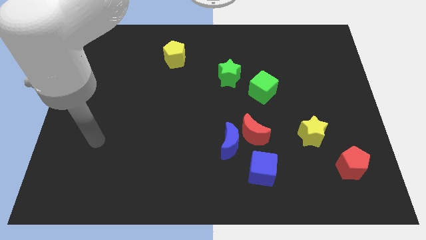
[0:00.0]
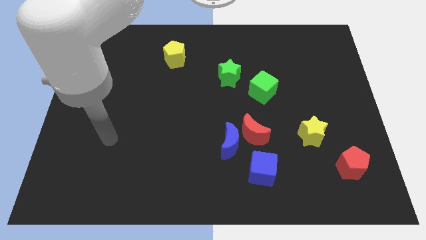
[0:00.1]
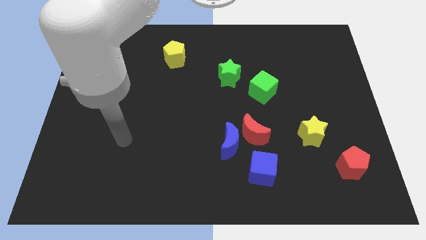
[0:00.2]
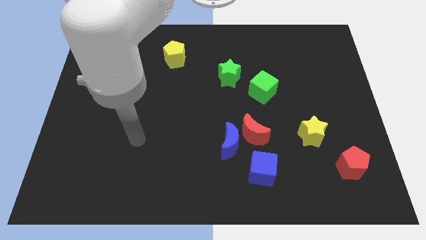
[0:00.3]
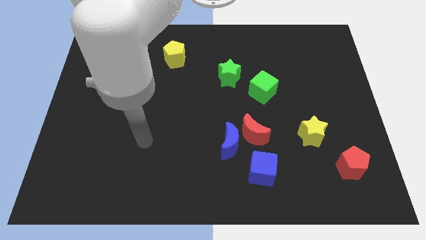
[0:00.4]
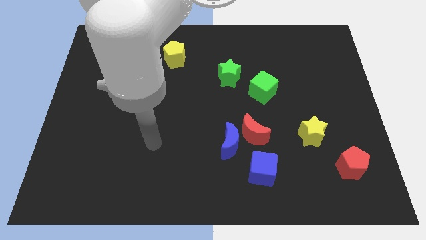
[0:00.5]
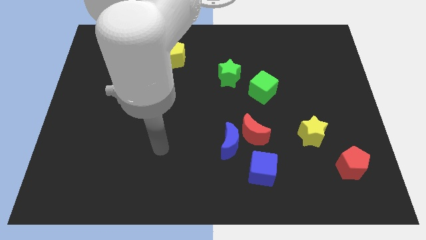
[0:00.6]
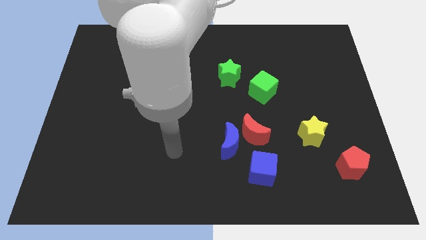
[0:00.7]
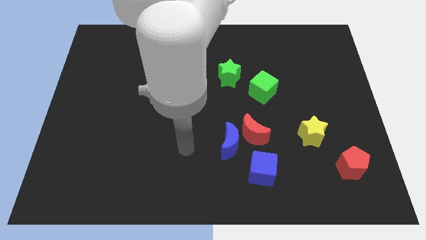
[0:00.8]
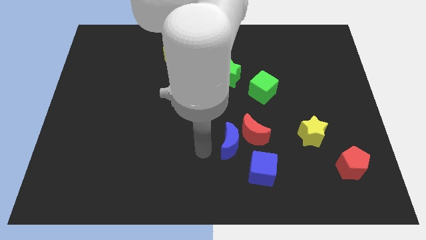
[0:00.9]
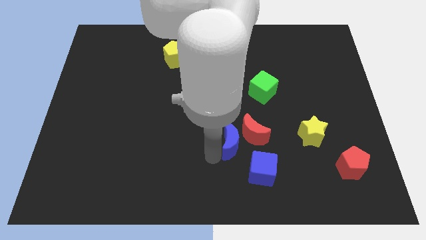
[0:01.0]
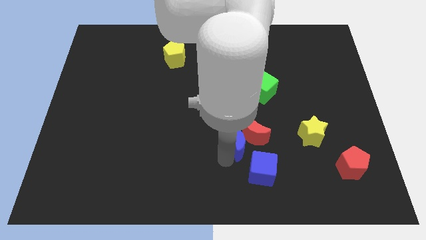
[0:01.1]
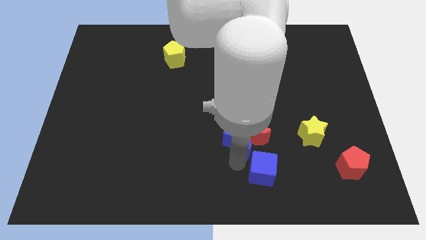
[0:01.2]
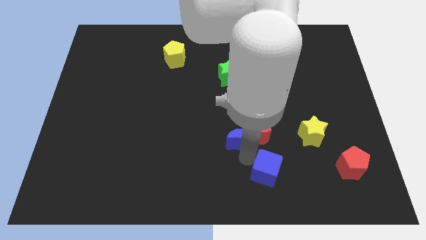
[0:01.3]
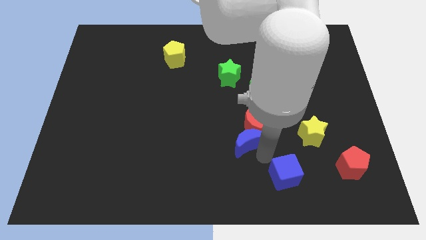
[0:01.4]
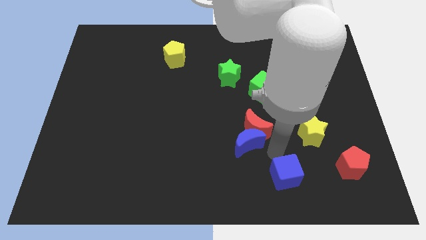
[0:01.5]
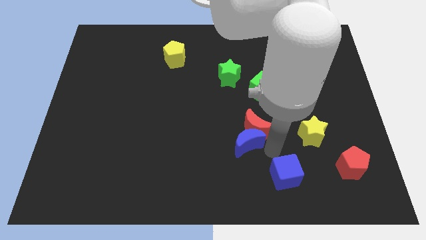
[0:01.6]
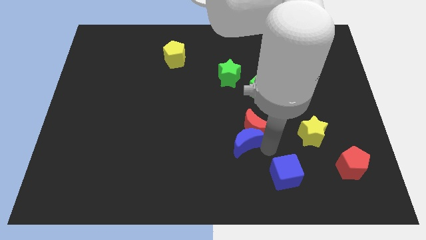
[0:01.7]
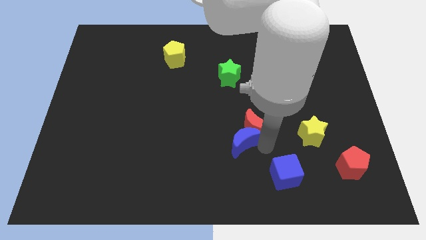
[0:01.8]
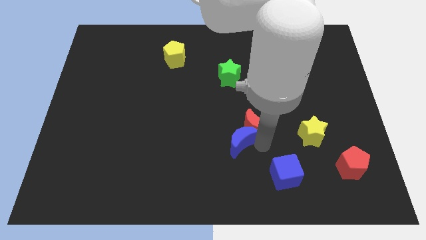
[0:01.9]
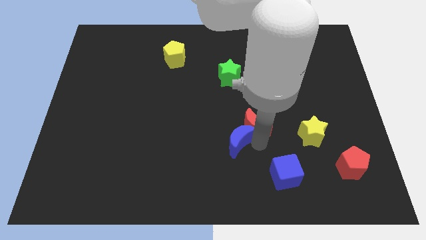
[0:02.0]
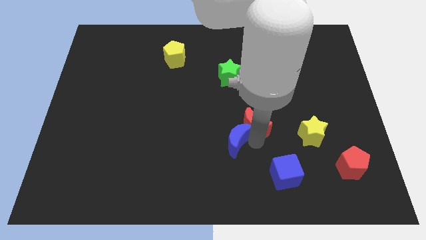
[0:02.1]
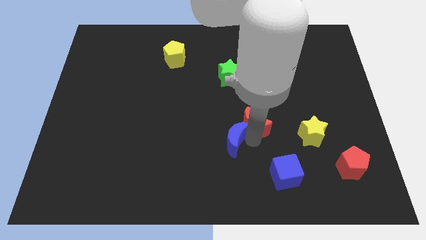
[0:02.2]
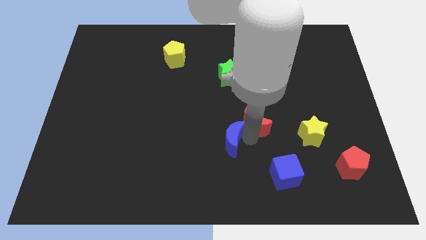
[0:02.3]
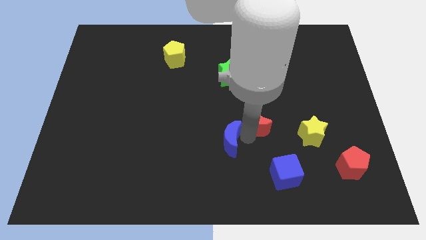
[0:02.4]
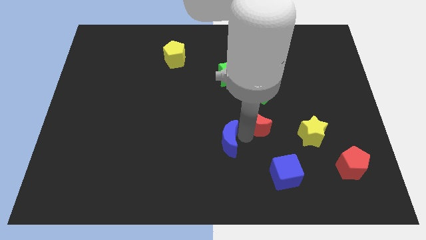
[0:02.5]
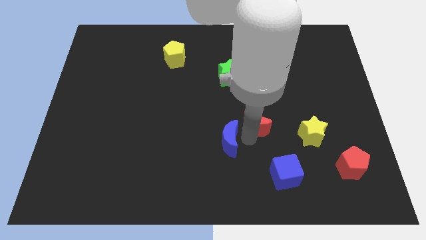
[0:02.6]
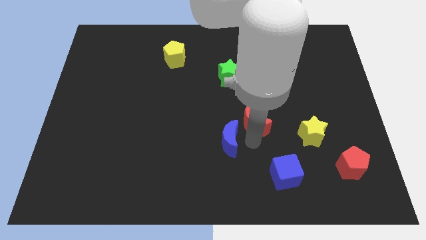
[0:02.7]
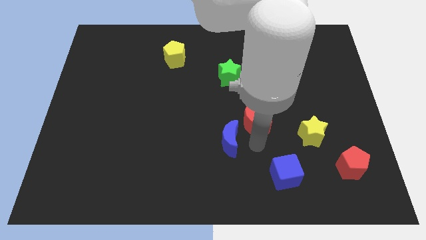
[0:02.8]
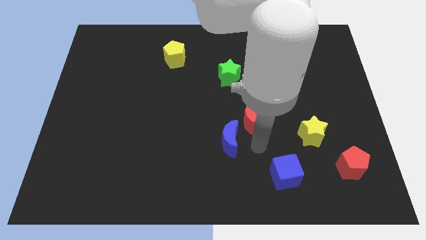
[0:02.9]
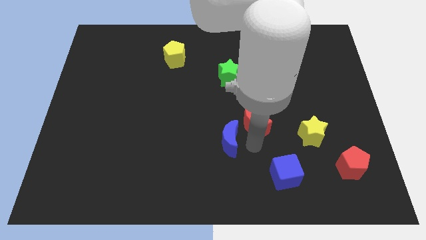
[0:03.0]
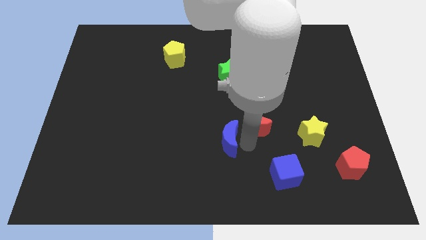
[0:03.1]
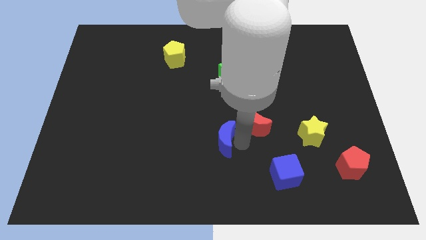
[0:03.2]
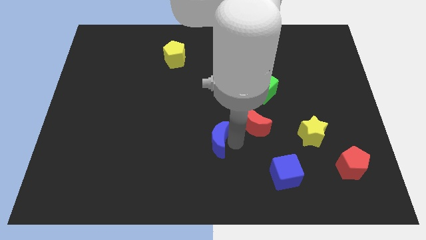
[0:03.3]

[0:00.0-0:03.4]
separate the blue moon from the red moon and blue cube

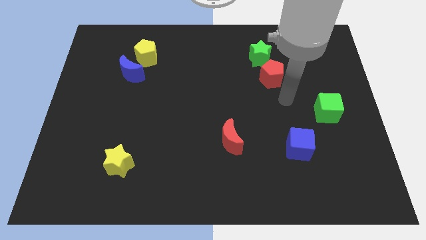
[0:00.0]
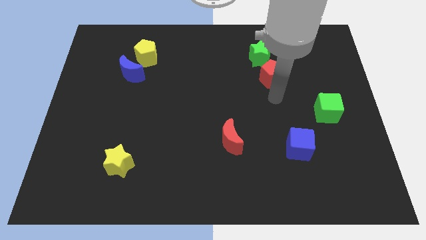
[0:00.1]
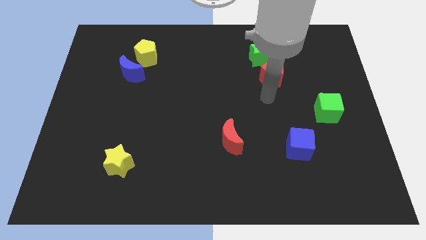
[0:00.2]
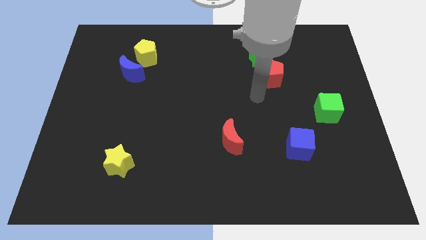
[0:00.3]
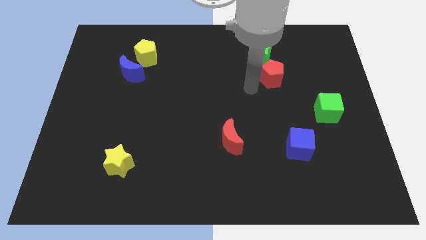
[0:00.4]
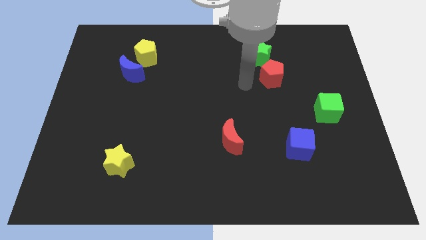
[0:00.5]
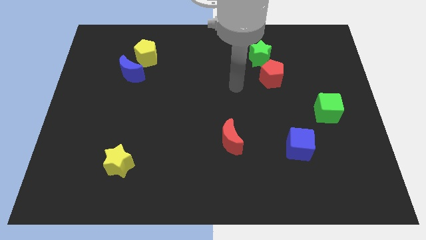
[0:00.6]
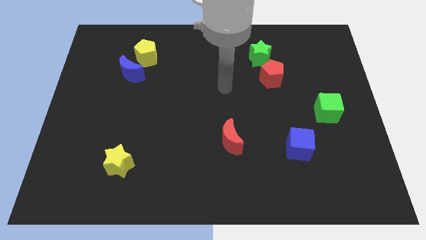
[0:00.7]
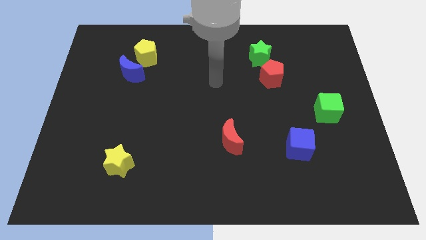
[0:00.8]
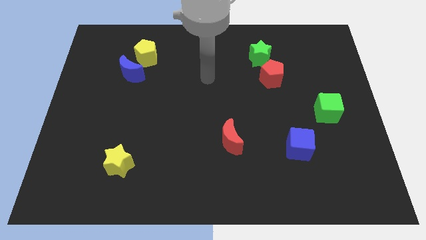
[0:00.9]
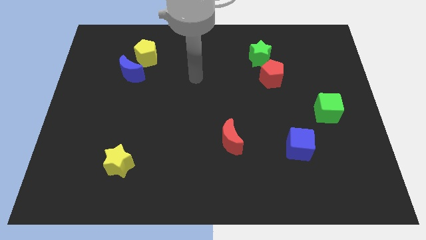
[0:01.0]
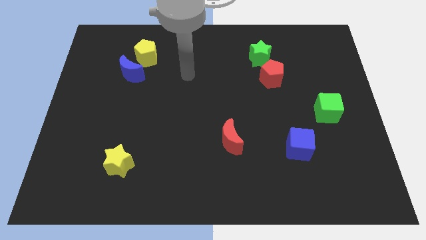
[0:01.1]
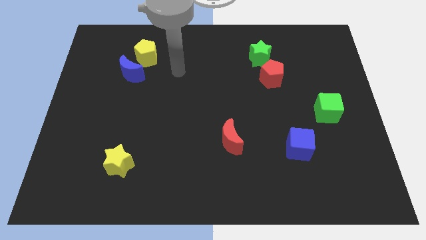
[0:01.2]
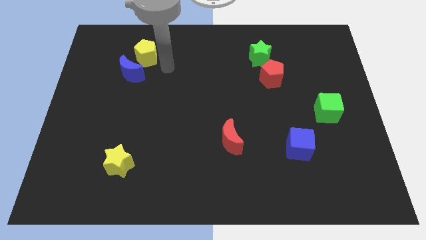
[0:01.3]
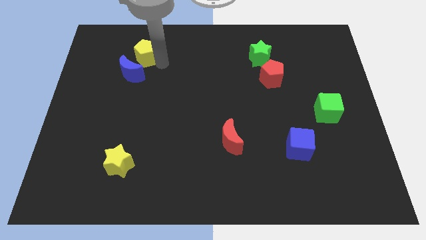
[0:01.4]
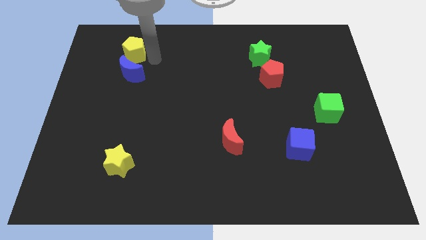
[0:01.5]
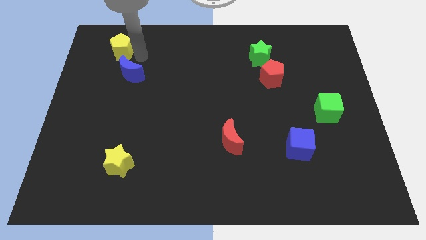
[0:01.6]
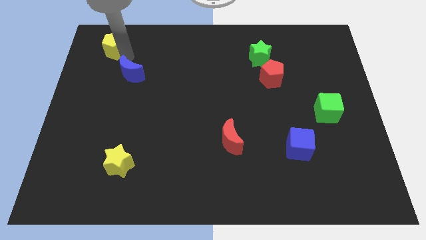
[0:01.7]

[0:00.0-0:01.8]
move the blue moon away from the yellow pentagon

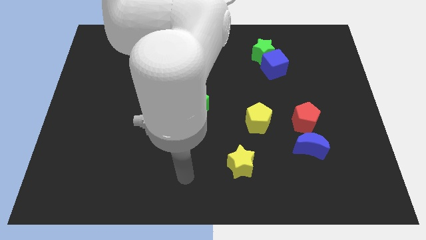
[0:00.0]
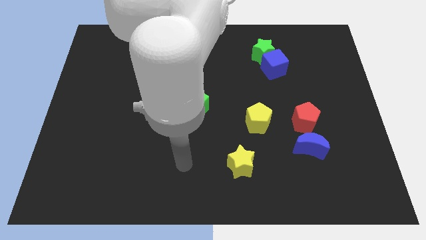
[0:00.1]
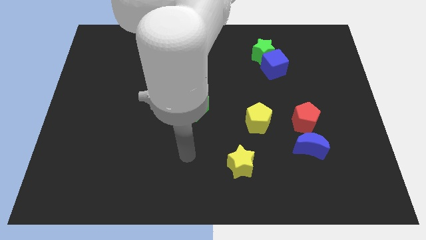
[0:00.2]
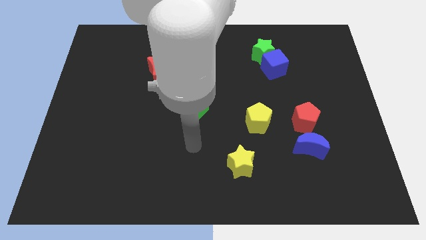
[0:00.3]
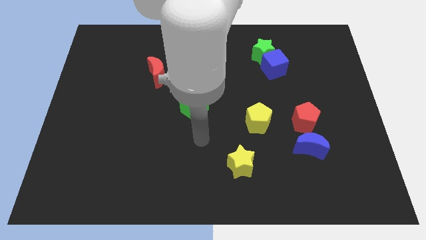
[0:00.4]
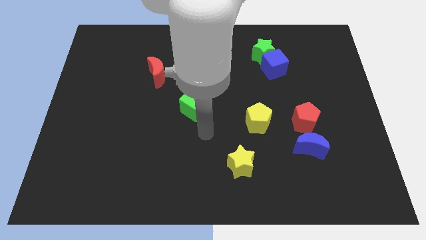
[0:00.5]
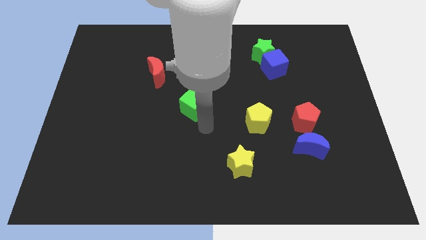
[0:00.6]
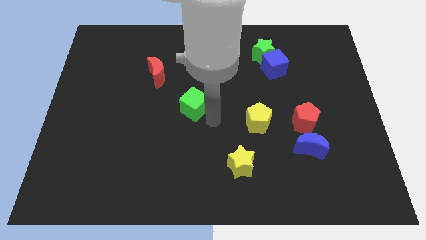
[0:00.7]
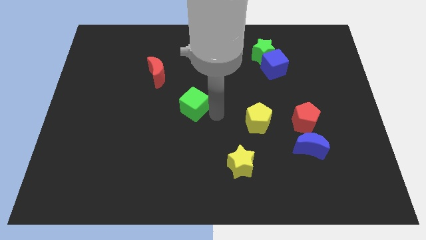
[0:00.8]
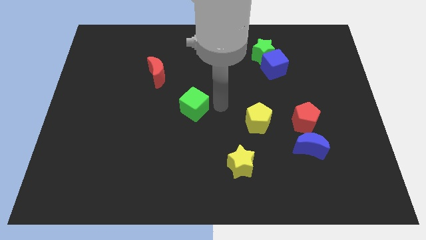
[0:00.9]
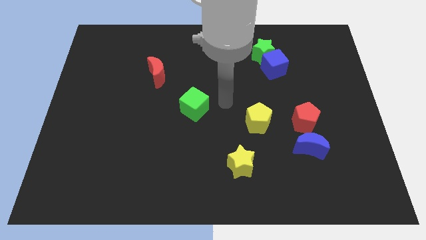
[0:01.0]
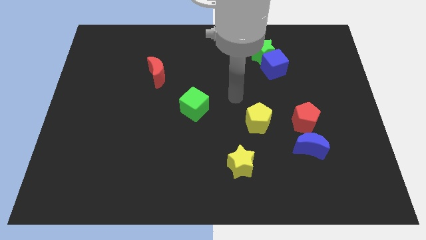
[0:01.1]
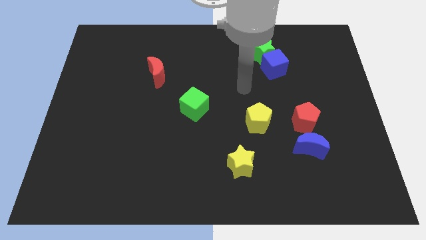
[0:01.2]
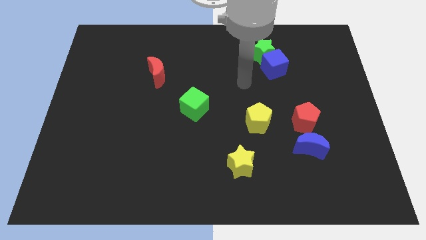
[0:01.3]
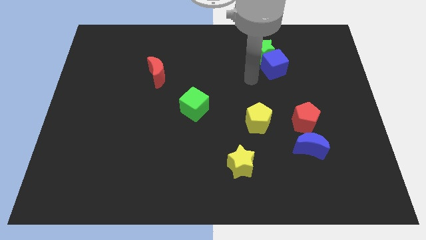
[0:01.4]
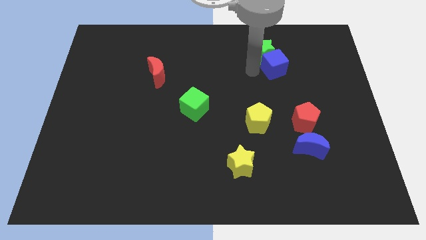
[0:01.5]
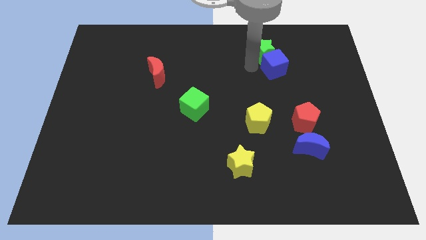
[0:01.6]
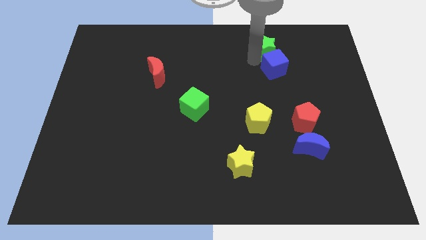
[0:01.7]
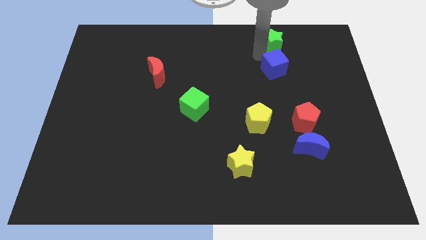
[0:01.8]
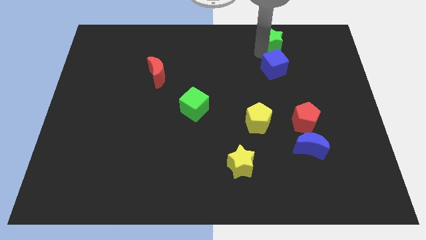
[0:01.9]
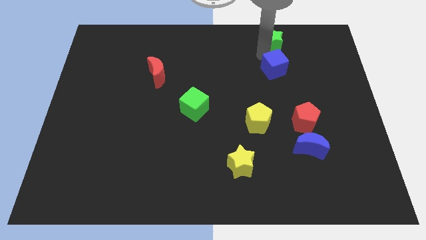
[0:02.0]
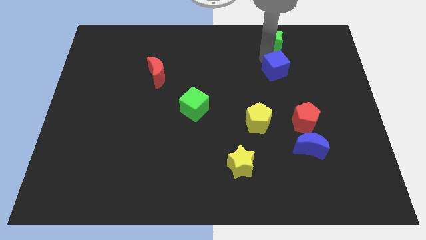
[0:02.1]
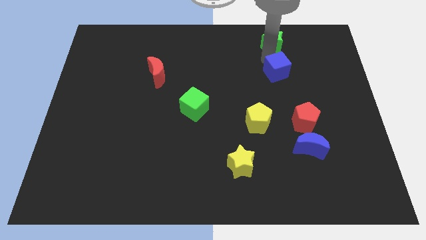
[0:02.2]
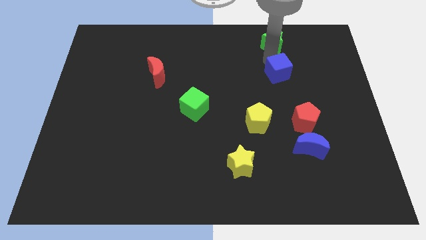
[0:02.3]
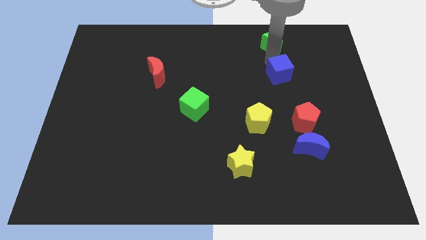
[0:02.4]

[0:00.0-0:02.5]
separate the blue cube from the green star

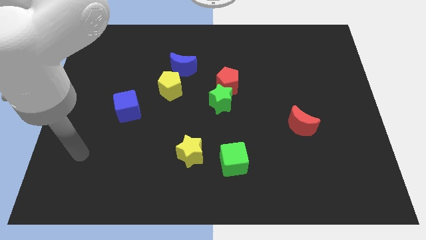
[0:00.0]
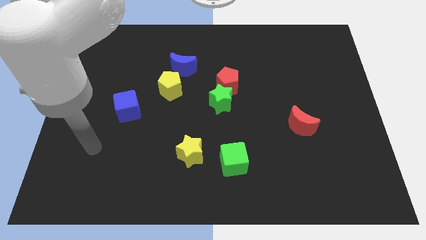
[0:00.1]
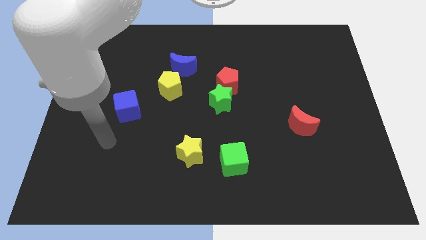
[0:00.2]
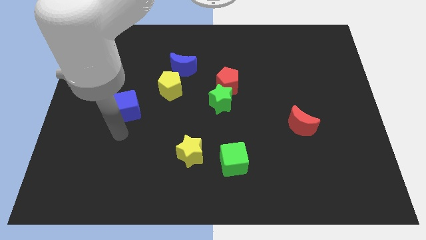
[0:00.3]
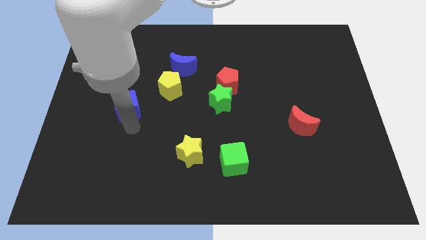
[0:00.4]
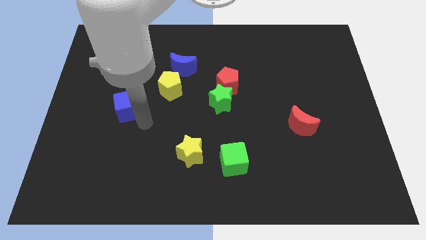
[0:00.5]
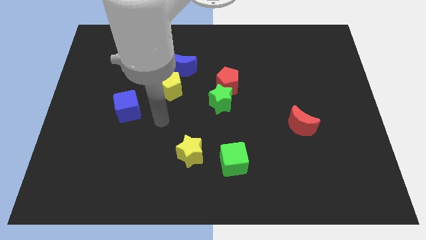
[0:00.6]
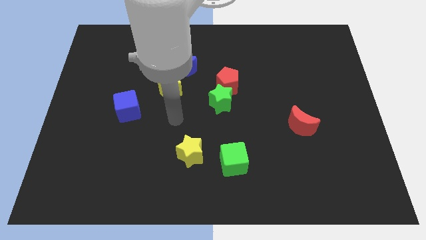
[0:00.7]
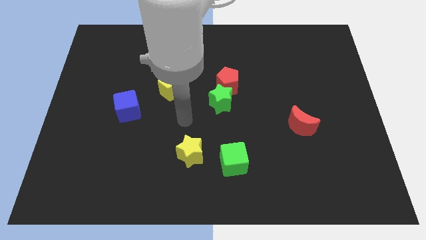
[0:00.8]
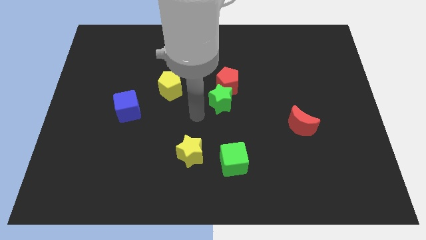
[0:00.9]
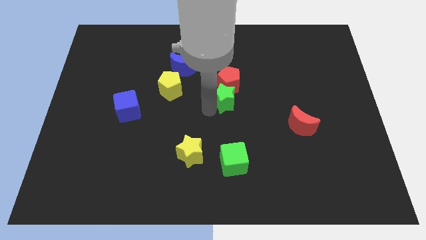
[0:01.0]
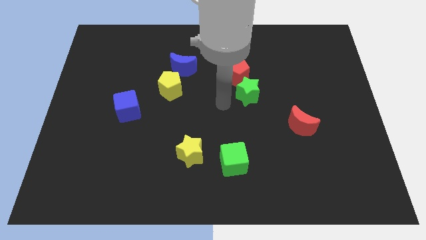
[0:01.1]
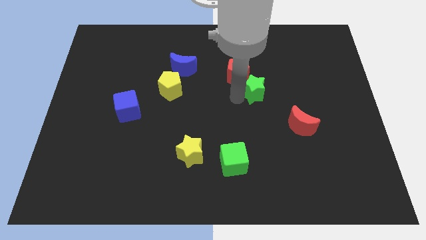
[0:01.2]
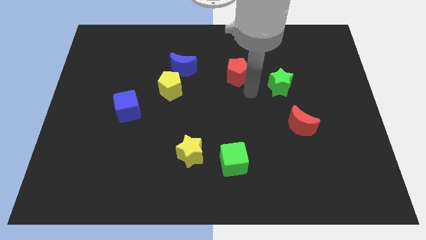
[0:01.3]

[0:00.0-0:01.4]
separate the red pentagon from the green star

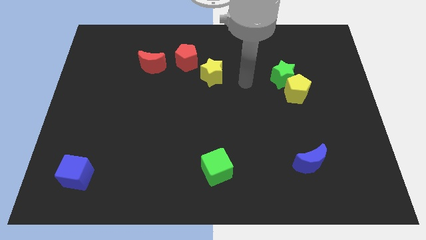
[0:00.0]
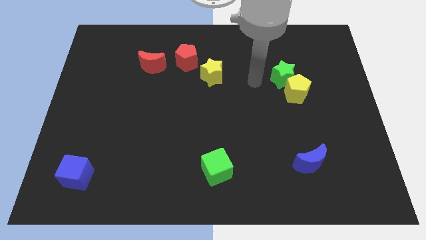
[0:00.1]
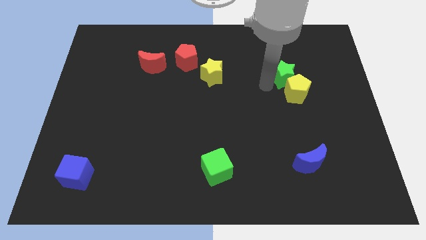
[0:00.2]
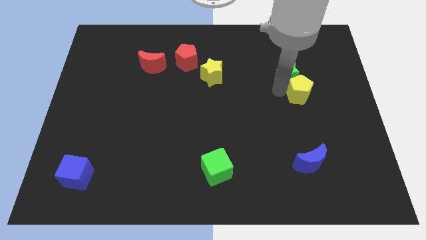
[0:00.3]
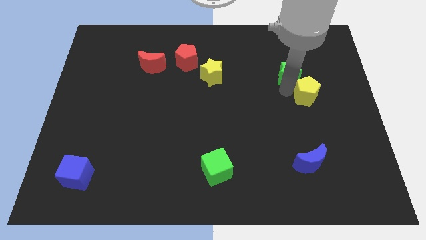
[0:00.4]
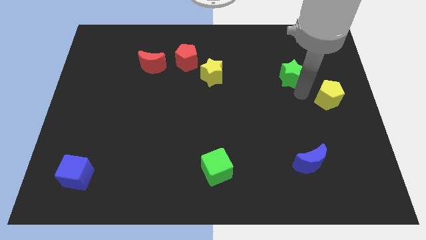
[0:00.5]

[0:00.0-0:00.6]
move the green star away from the yellow pentagon
